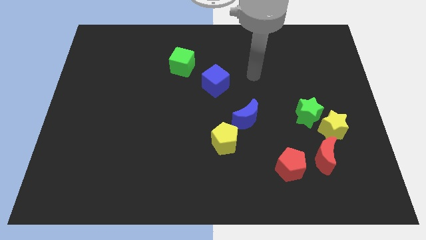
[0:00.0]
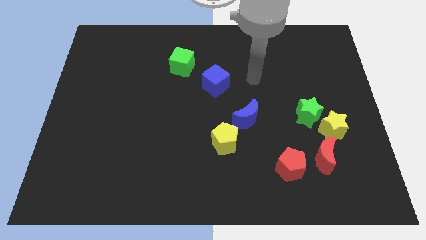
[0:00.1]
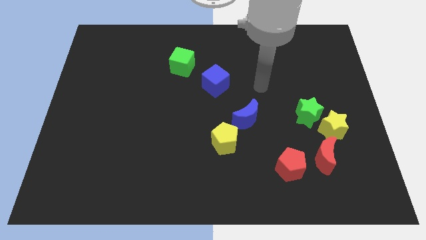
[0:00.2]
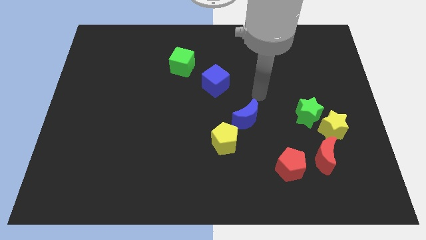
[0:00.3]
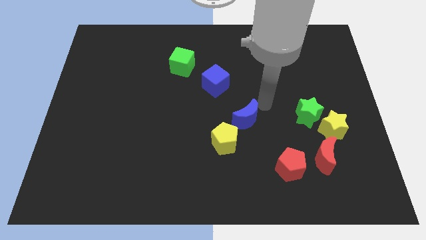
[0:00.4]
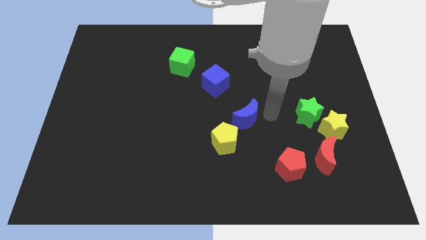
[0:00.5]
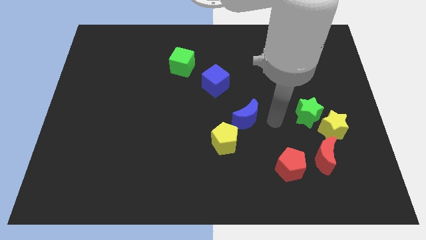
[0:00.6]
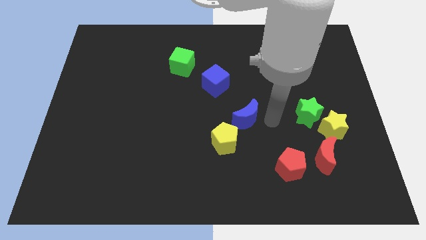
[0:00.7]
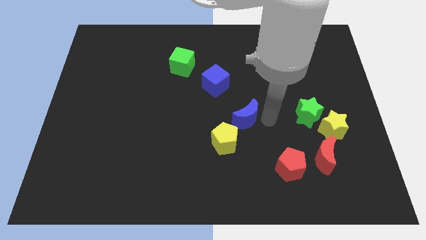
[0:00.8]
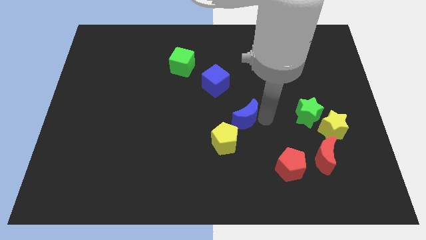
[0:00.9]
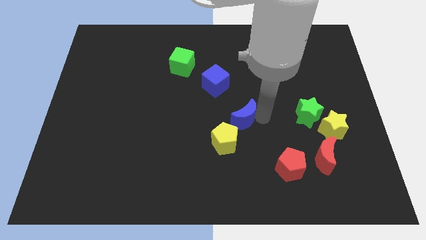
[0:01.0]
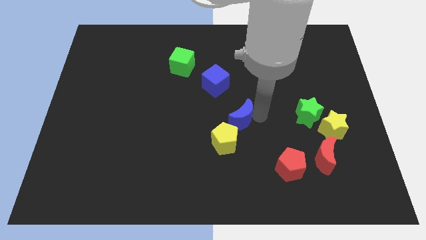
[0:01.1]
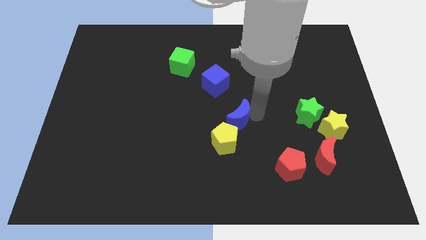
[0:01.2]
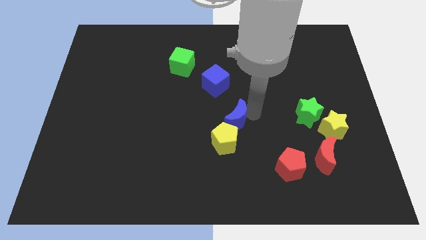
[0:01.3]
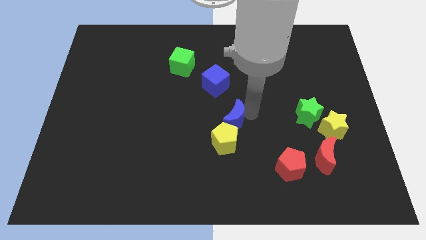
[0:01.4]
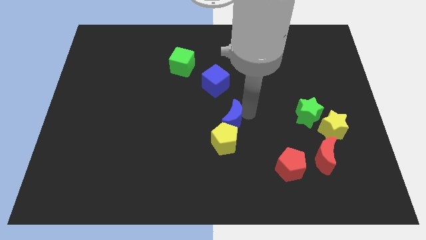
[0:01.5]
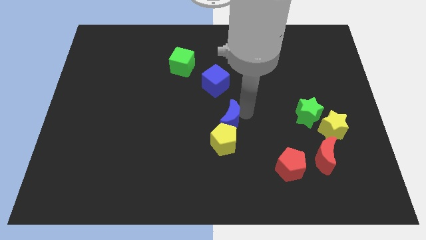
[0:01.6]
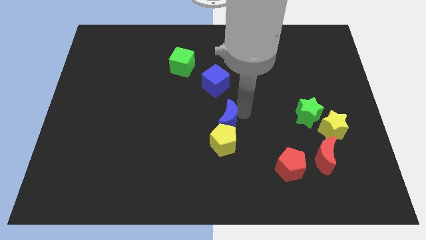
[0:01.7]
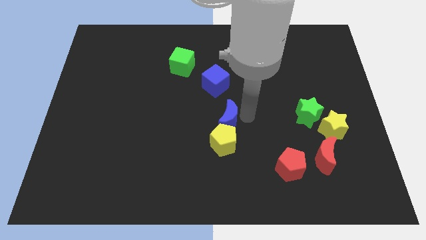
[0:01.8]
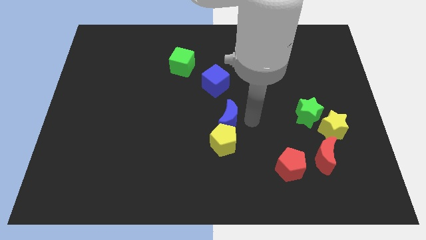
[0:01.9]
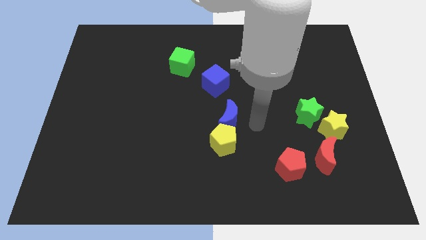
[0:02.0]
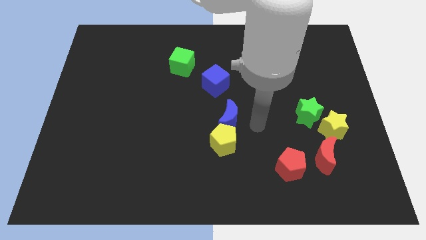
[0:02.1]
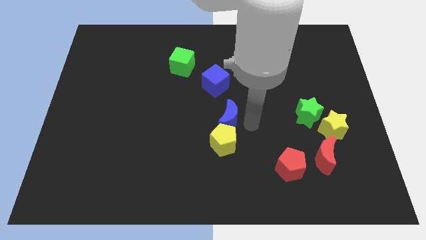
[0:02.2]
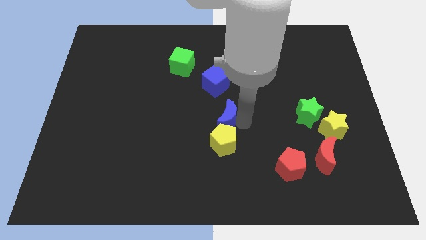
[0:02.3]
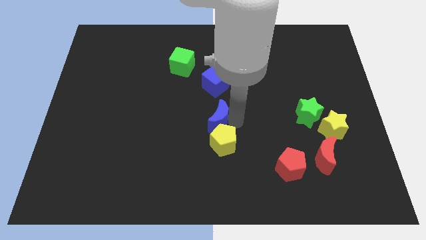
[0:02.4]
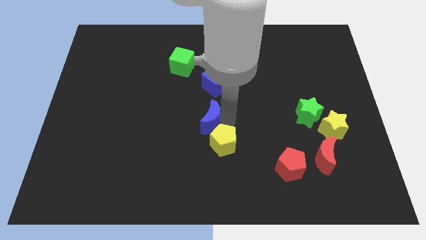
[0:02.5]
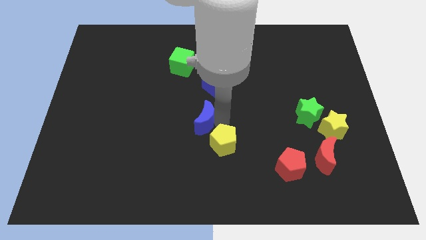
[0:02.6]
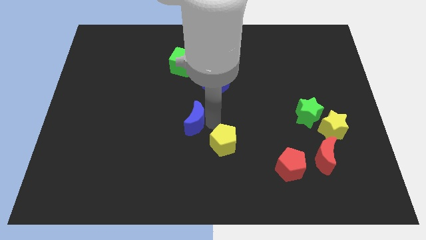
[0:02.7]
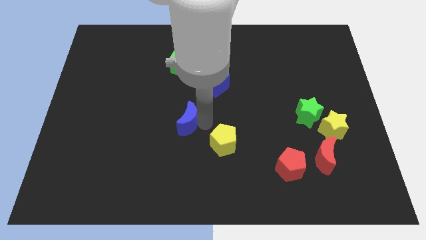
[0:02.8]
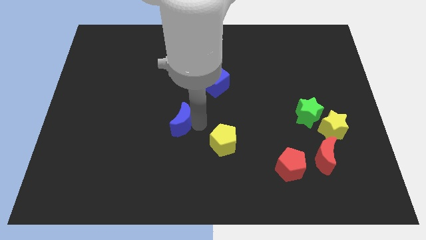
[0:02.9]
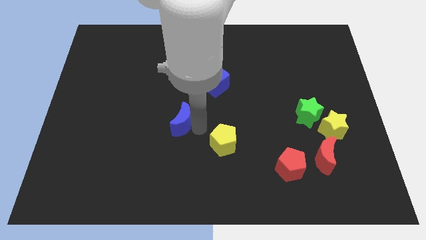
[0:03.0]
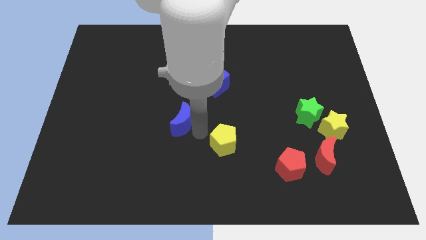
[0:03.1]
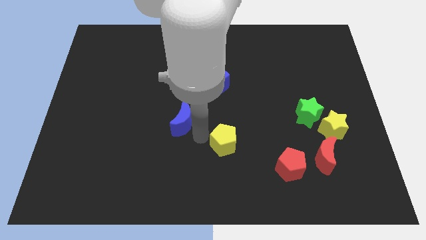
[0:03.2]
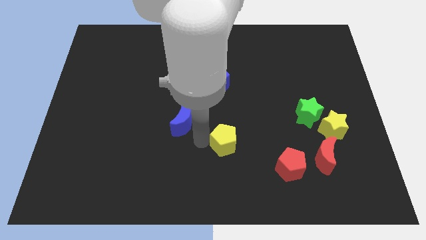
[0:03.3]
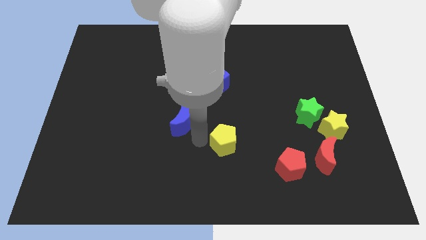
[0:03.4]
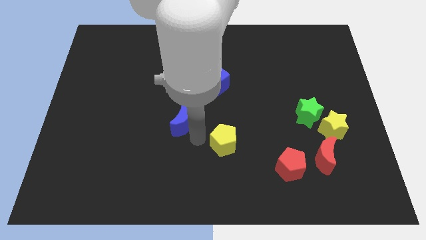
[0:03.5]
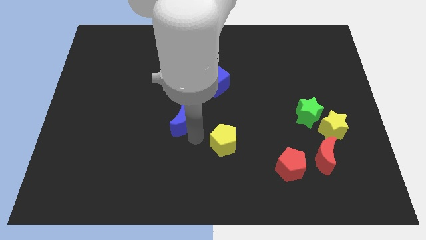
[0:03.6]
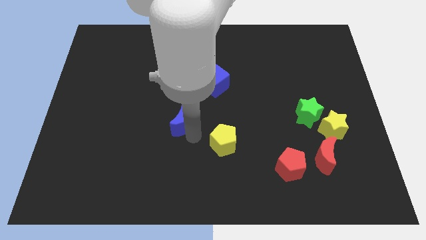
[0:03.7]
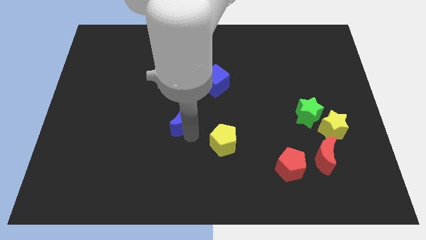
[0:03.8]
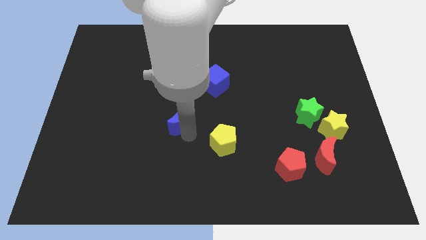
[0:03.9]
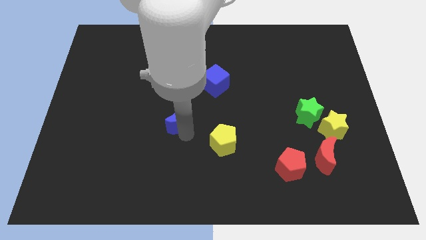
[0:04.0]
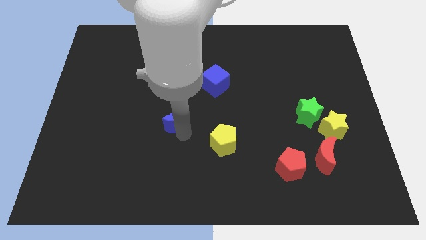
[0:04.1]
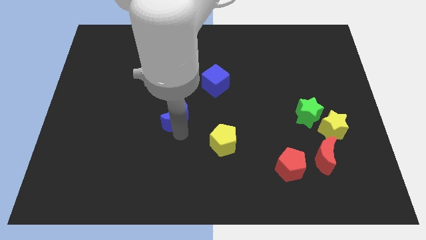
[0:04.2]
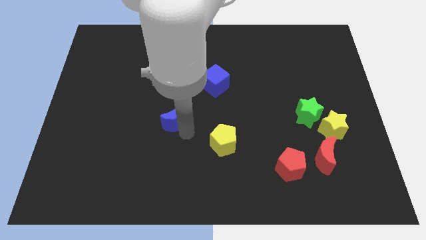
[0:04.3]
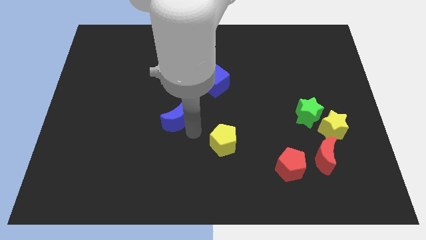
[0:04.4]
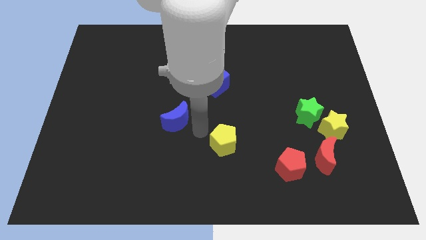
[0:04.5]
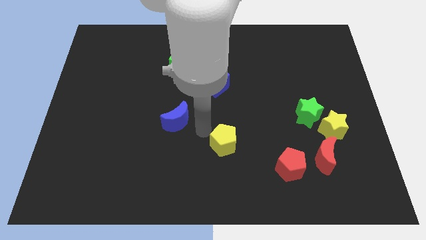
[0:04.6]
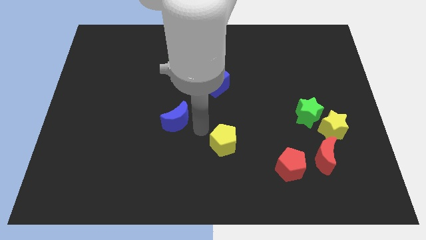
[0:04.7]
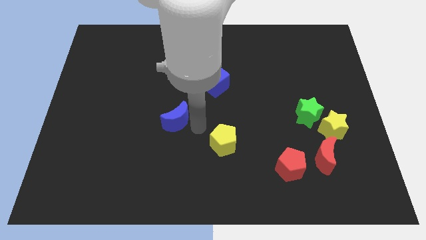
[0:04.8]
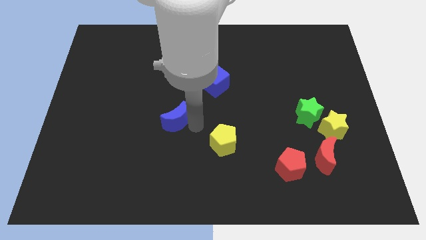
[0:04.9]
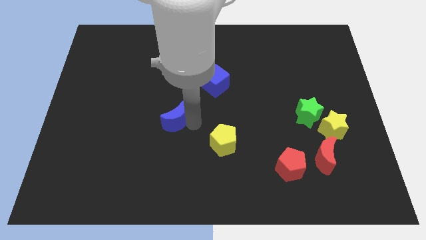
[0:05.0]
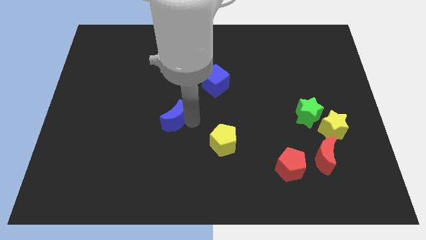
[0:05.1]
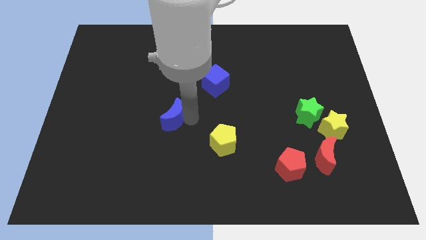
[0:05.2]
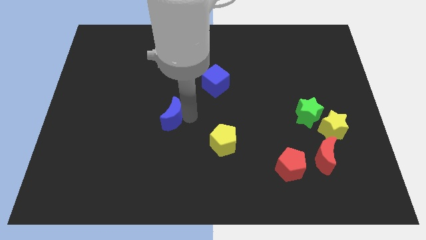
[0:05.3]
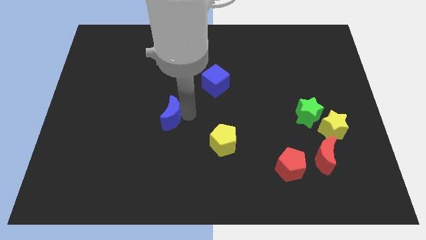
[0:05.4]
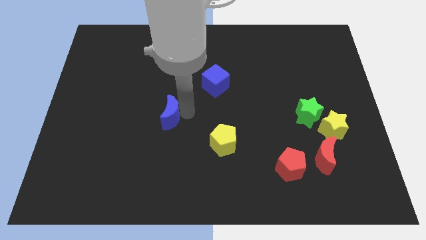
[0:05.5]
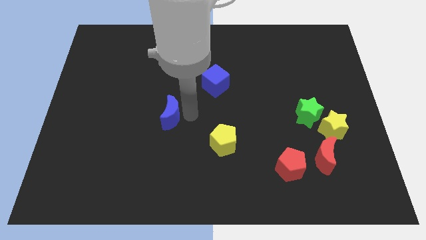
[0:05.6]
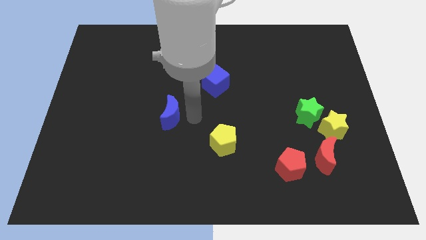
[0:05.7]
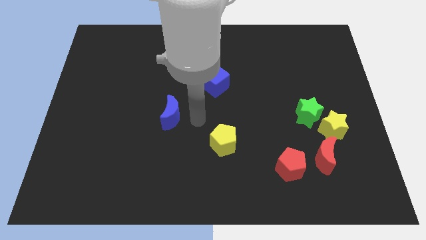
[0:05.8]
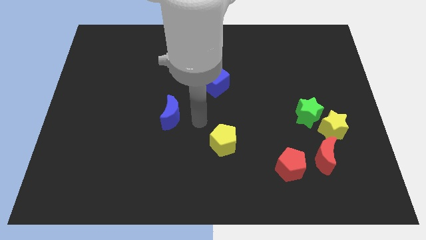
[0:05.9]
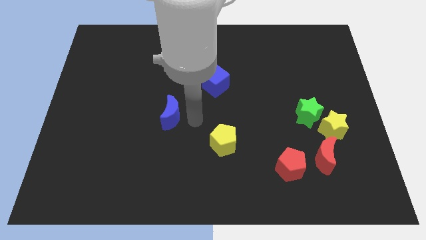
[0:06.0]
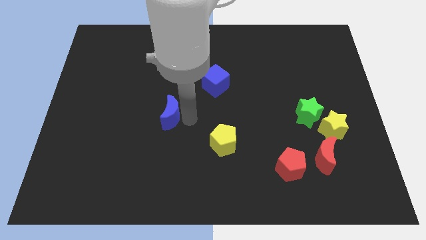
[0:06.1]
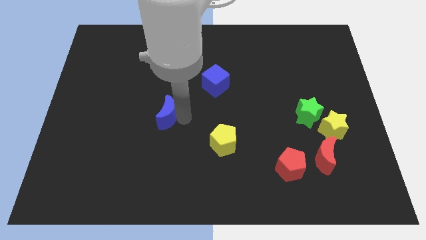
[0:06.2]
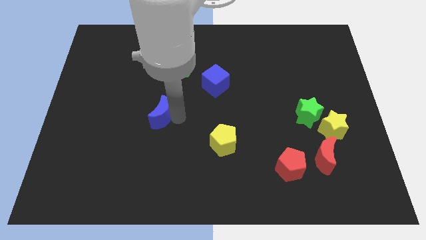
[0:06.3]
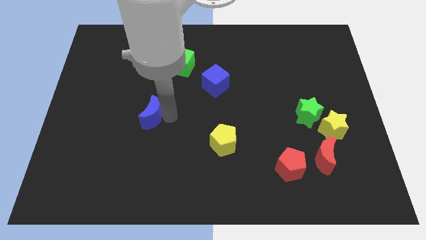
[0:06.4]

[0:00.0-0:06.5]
move the blue moon left

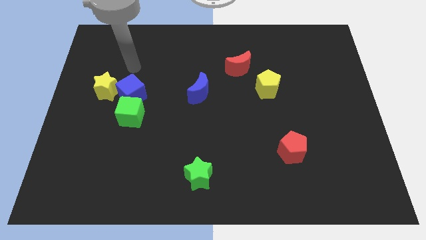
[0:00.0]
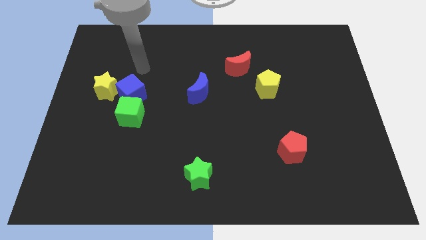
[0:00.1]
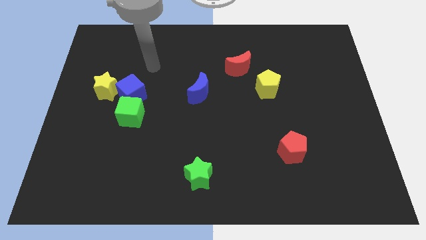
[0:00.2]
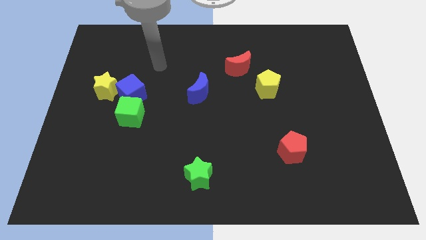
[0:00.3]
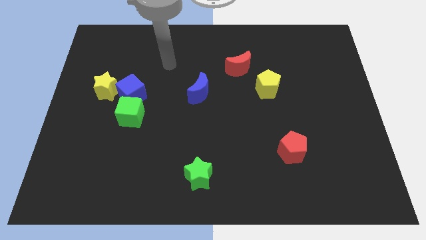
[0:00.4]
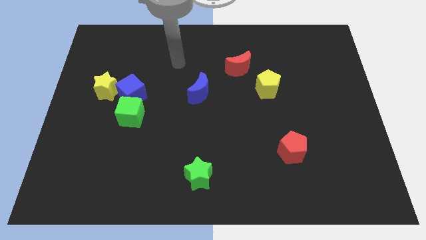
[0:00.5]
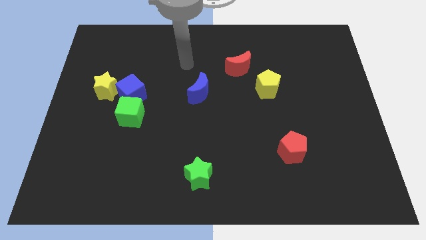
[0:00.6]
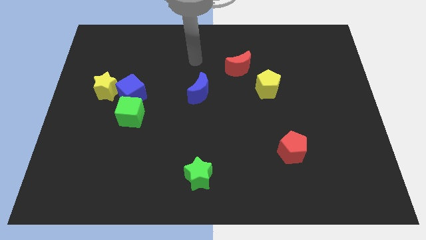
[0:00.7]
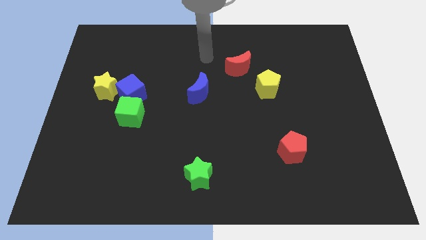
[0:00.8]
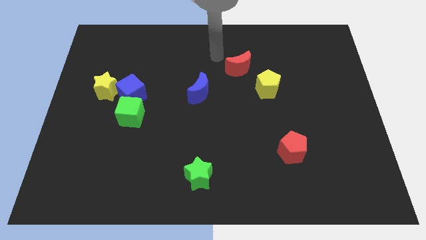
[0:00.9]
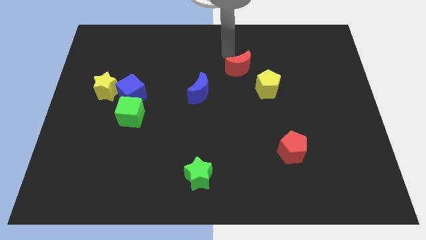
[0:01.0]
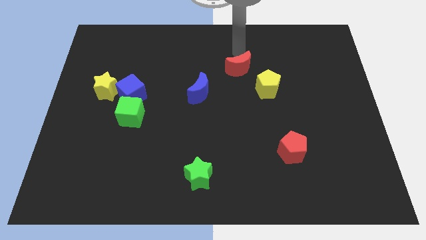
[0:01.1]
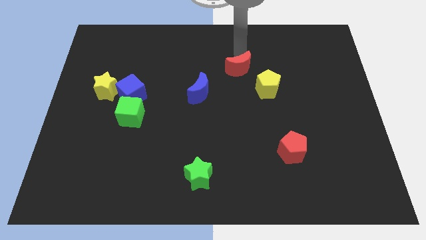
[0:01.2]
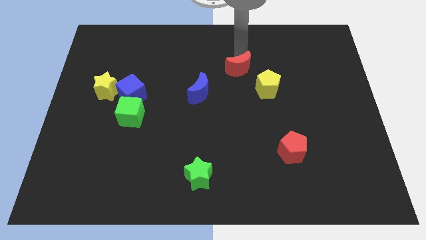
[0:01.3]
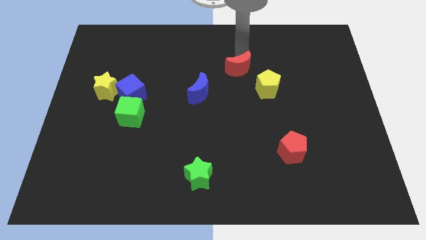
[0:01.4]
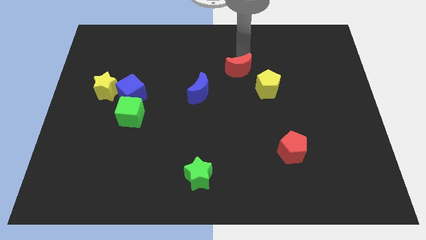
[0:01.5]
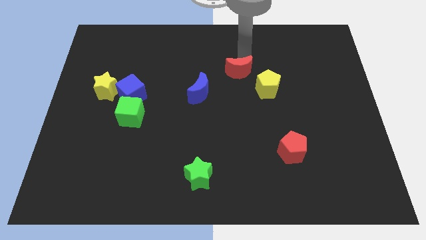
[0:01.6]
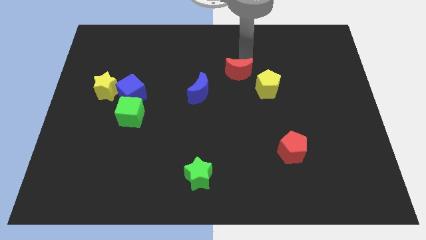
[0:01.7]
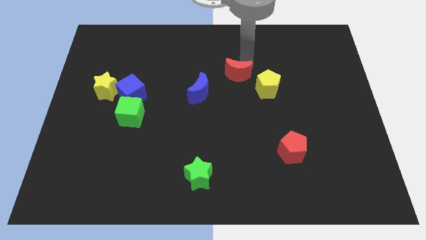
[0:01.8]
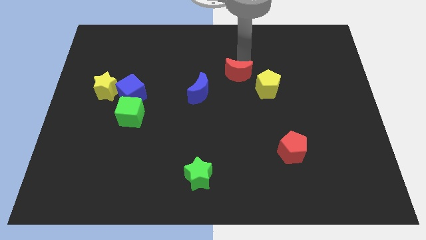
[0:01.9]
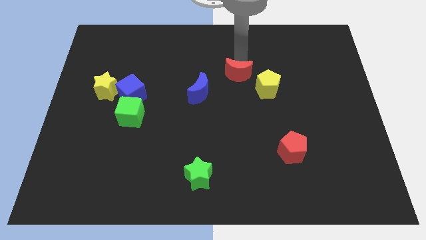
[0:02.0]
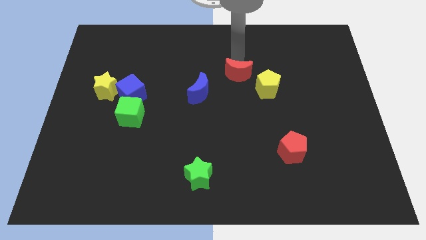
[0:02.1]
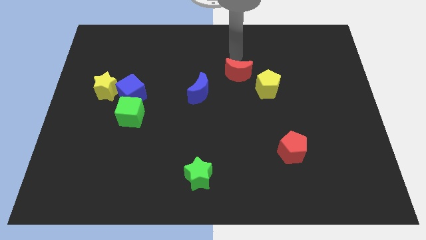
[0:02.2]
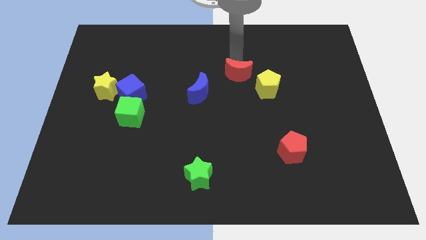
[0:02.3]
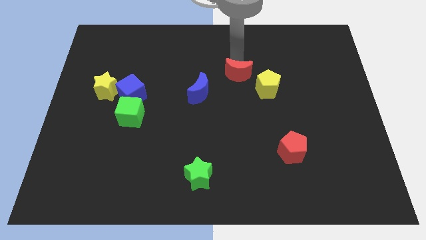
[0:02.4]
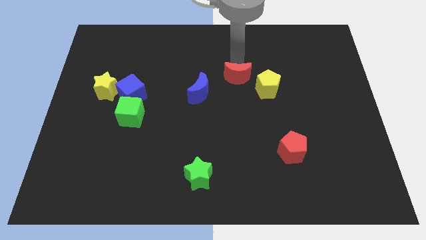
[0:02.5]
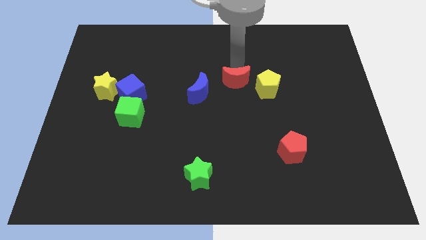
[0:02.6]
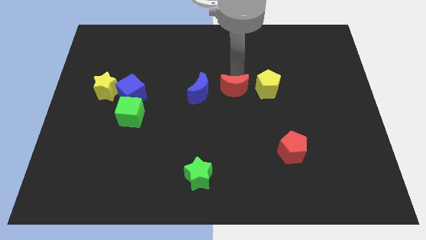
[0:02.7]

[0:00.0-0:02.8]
slide the red moon downwards a little bit
